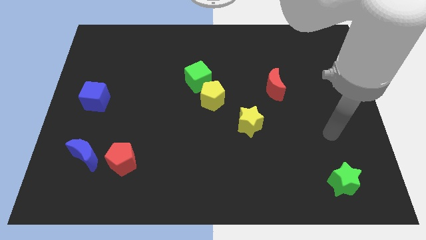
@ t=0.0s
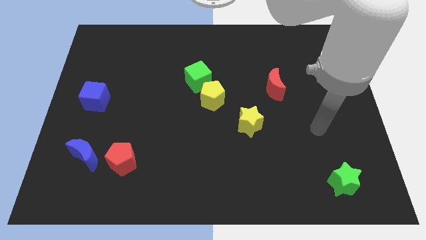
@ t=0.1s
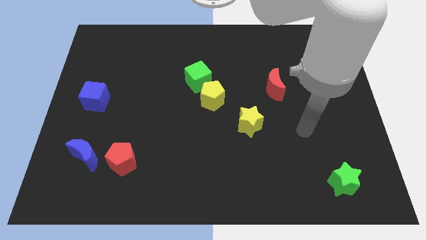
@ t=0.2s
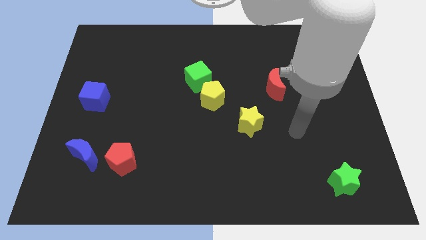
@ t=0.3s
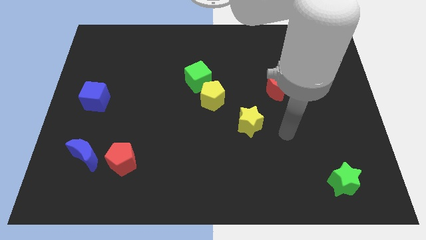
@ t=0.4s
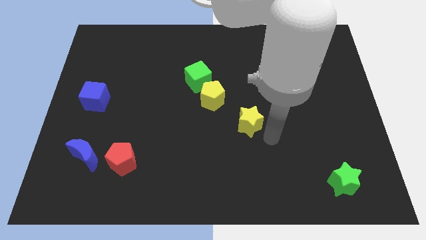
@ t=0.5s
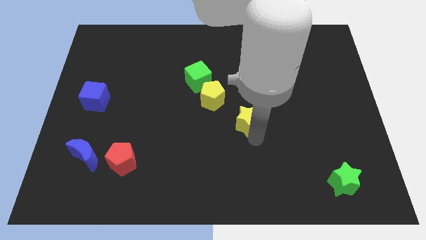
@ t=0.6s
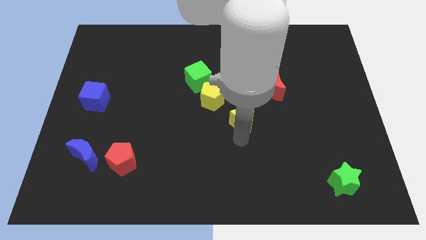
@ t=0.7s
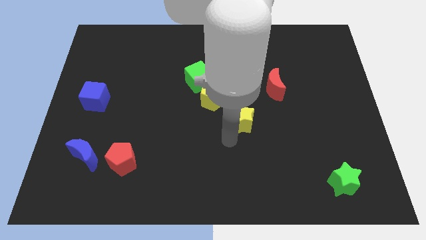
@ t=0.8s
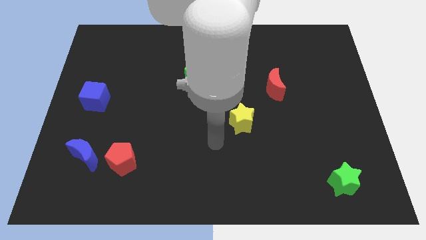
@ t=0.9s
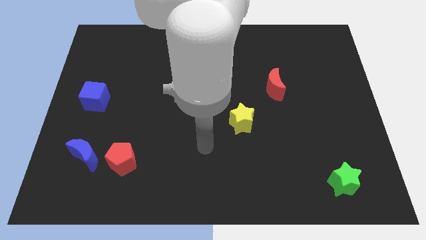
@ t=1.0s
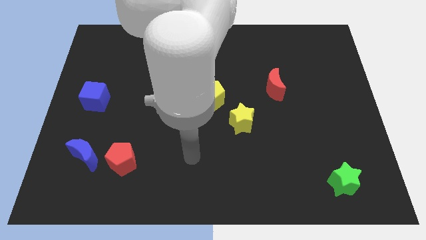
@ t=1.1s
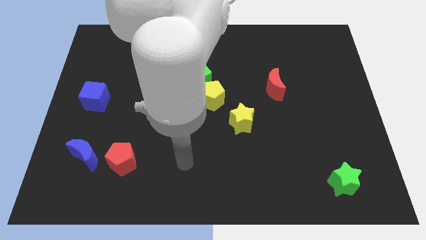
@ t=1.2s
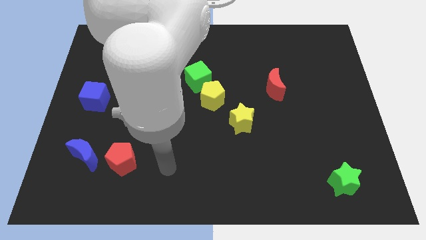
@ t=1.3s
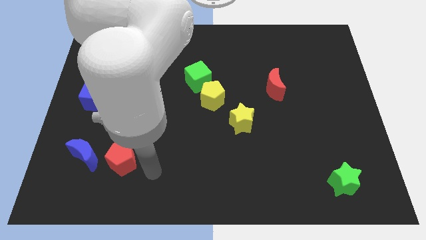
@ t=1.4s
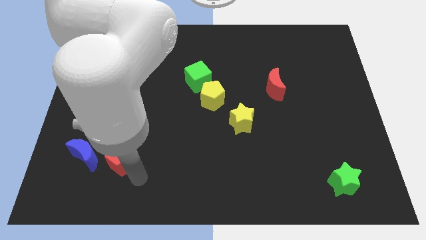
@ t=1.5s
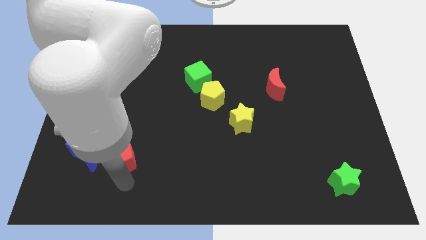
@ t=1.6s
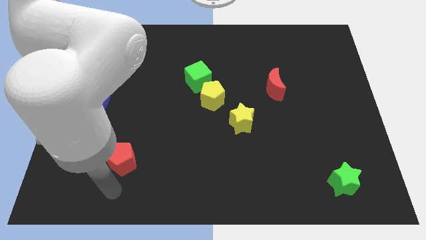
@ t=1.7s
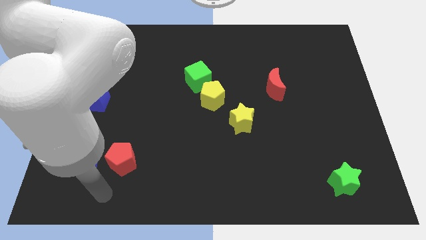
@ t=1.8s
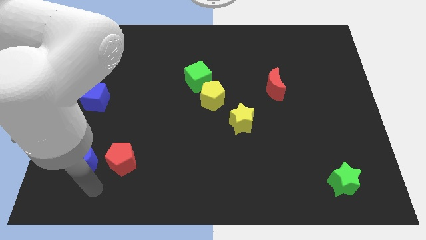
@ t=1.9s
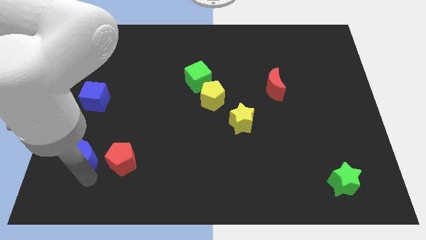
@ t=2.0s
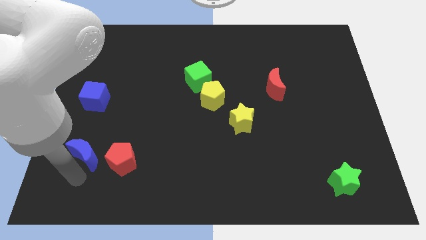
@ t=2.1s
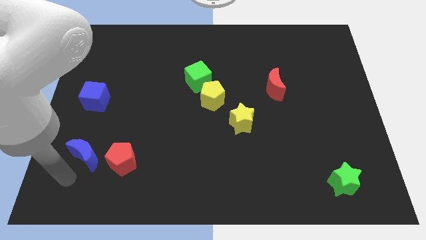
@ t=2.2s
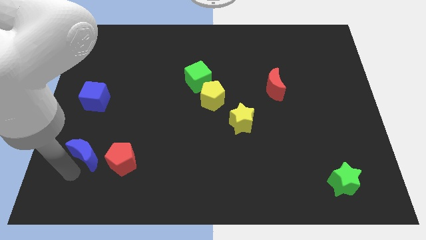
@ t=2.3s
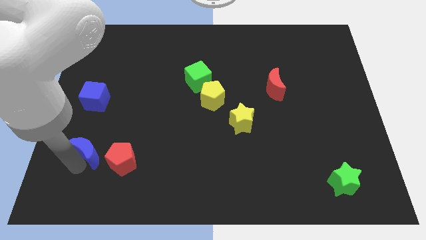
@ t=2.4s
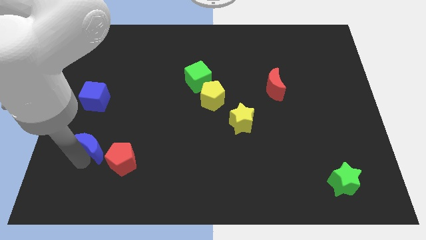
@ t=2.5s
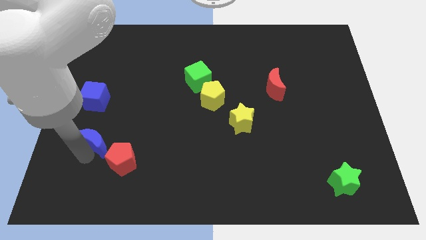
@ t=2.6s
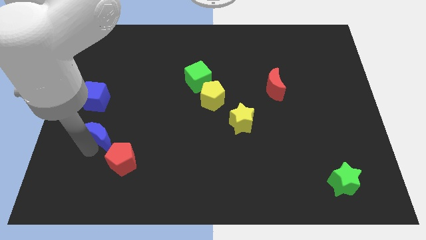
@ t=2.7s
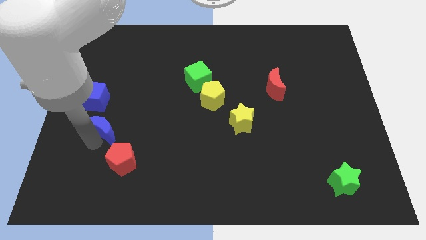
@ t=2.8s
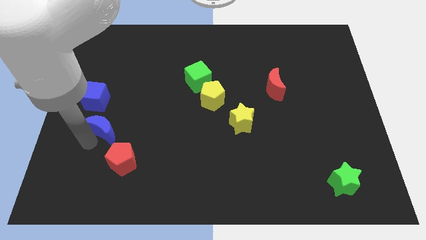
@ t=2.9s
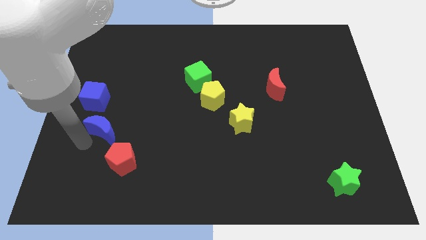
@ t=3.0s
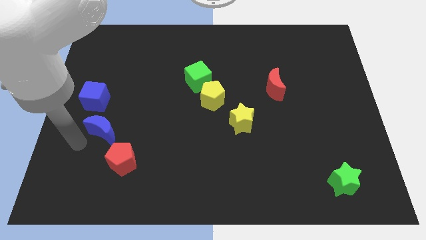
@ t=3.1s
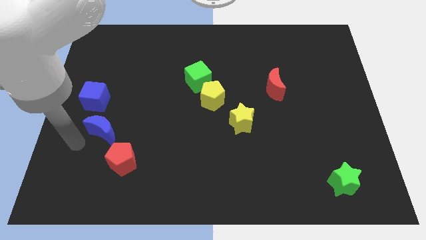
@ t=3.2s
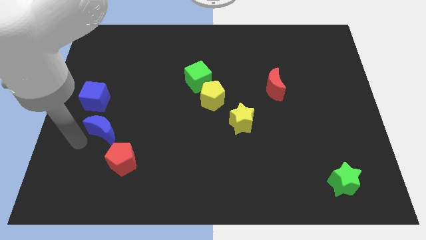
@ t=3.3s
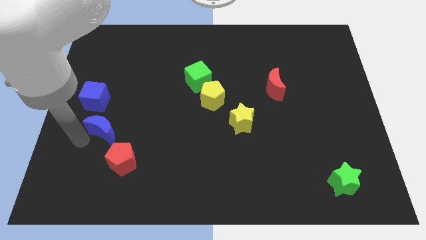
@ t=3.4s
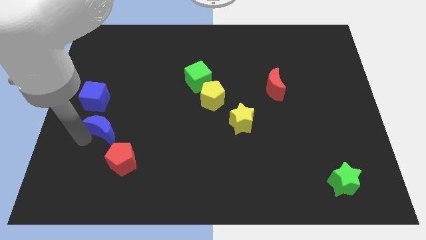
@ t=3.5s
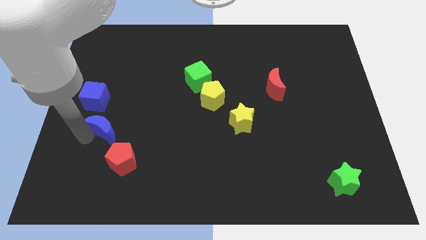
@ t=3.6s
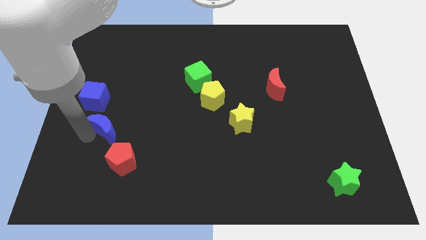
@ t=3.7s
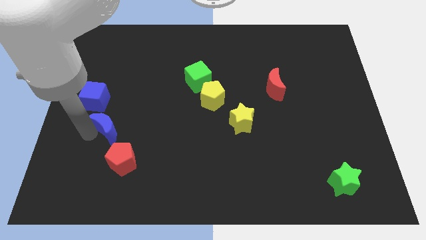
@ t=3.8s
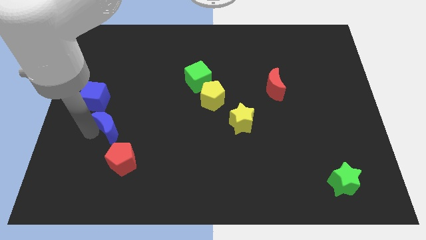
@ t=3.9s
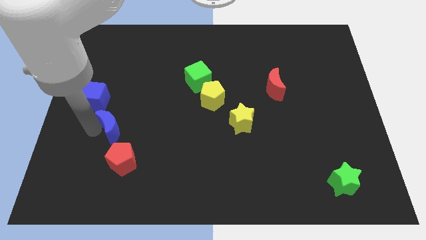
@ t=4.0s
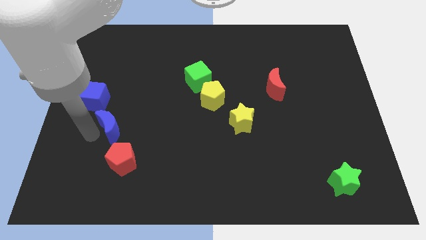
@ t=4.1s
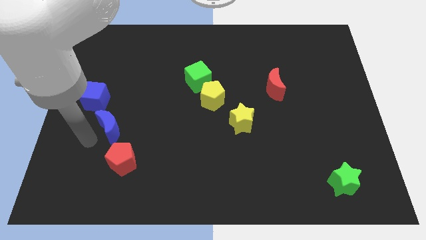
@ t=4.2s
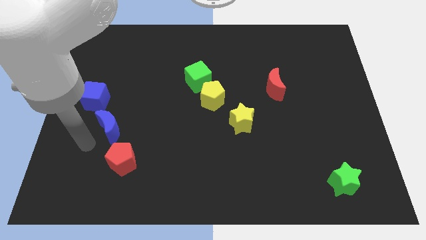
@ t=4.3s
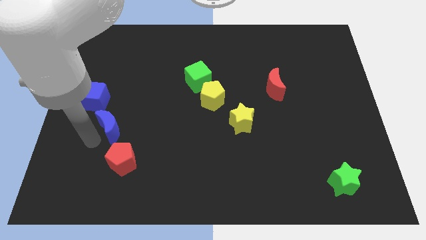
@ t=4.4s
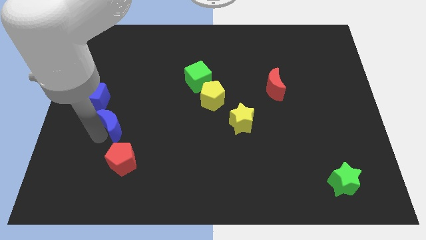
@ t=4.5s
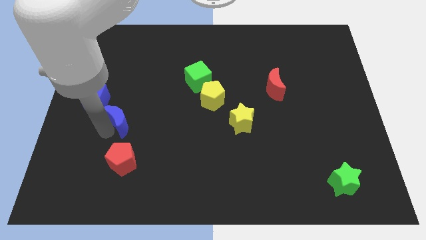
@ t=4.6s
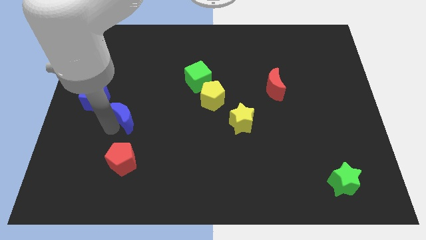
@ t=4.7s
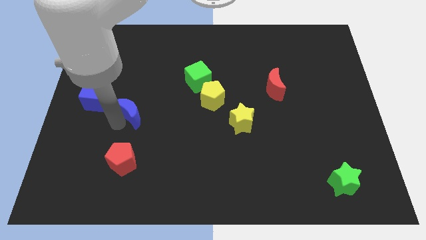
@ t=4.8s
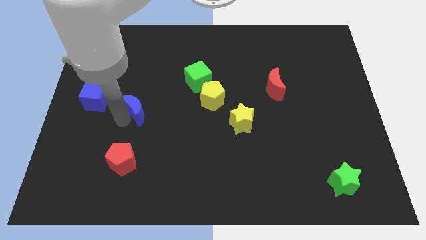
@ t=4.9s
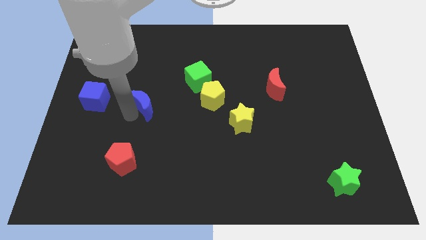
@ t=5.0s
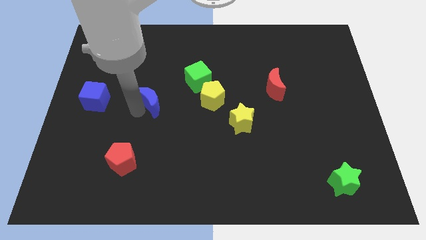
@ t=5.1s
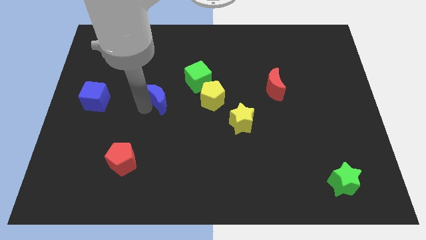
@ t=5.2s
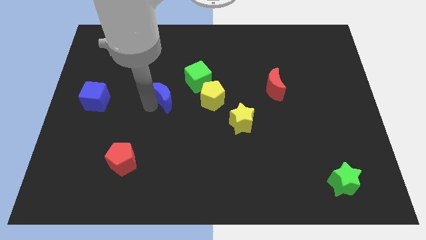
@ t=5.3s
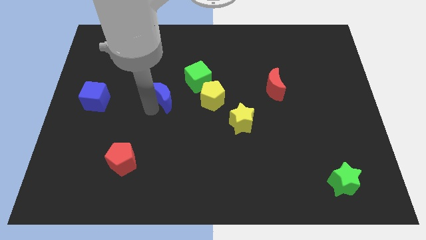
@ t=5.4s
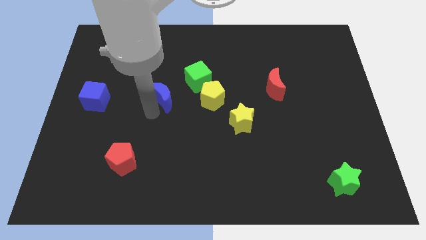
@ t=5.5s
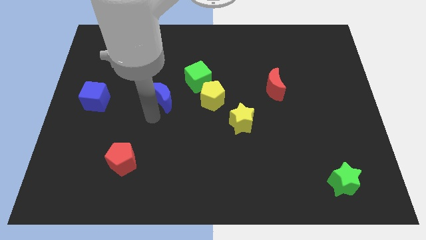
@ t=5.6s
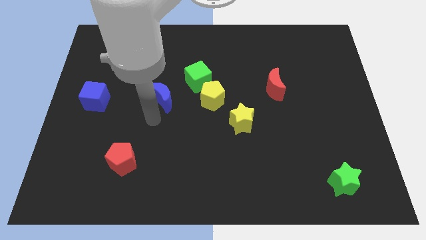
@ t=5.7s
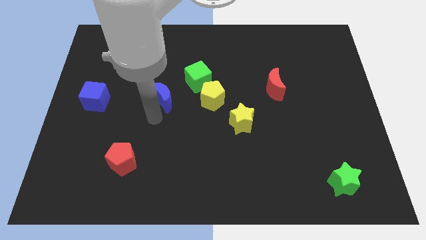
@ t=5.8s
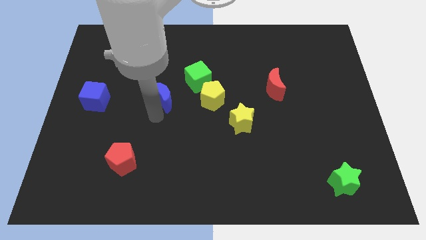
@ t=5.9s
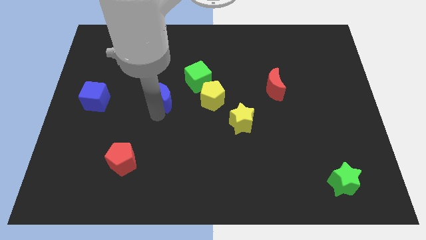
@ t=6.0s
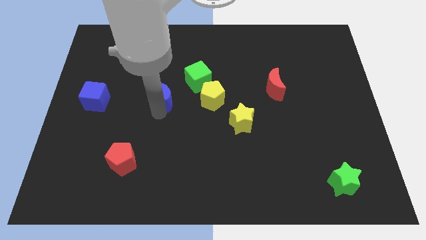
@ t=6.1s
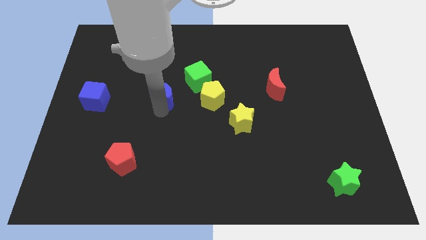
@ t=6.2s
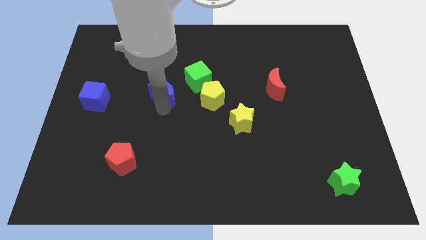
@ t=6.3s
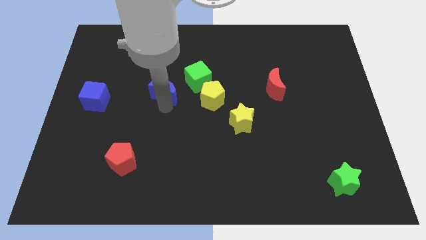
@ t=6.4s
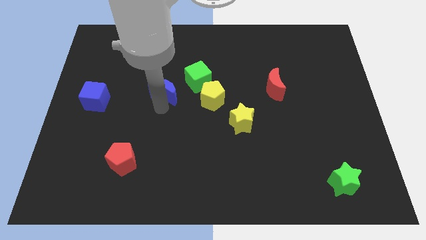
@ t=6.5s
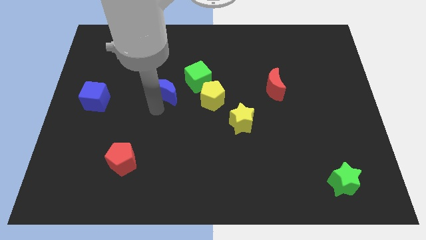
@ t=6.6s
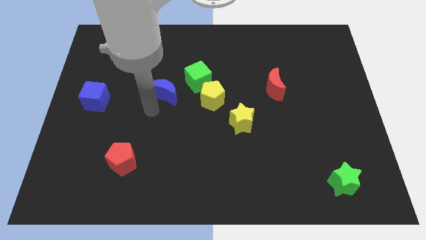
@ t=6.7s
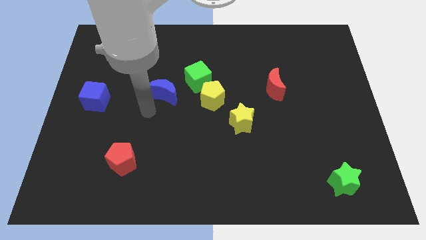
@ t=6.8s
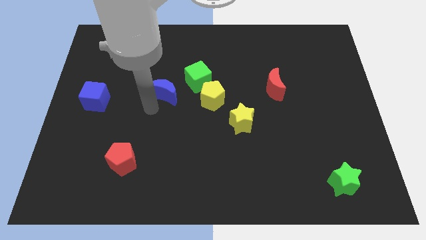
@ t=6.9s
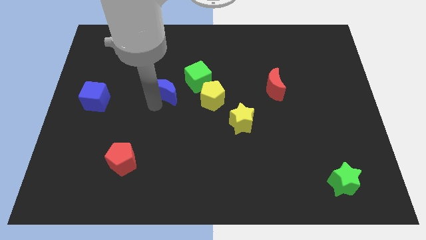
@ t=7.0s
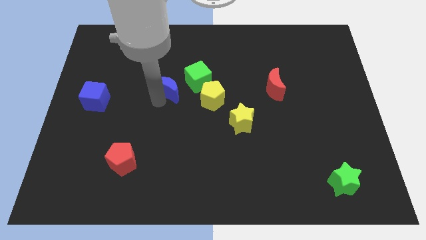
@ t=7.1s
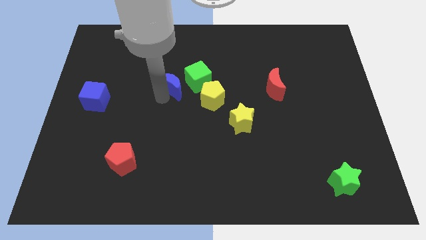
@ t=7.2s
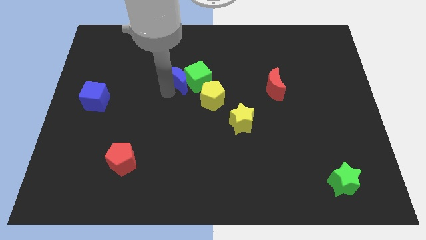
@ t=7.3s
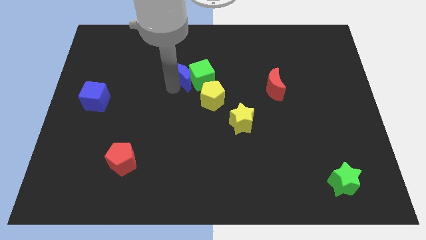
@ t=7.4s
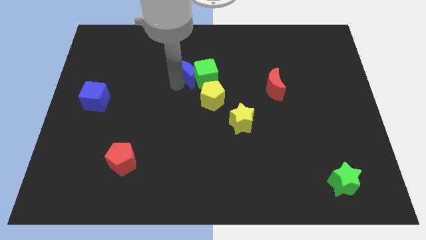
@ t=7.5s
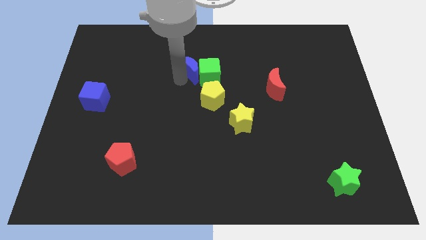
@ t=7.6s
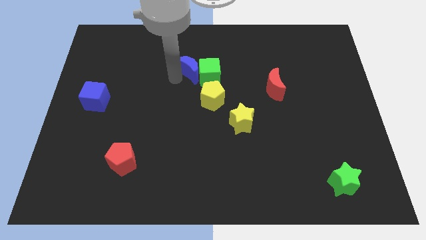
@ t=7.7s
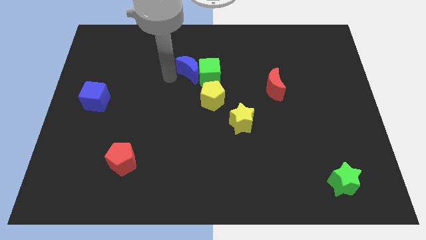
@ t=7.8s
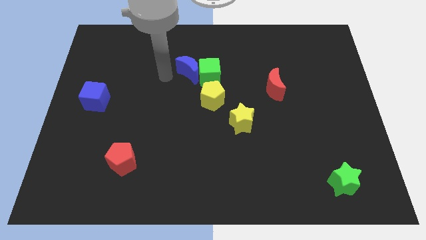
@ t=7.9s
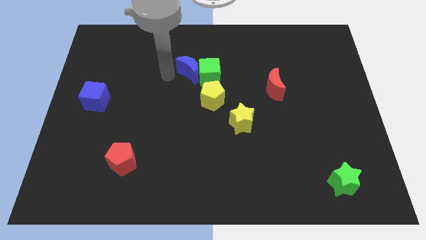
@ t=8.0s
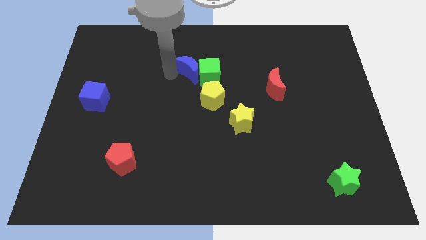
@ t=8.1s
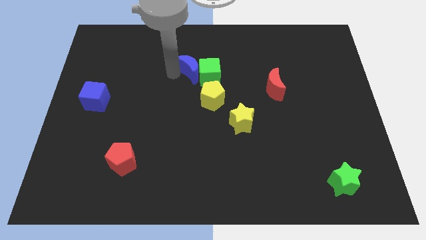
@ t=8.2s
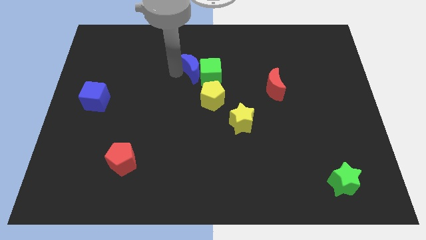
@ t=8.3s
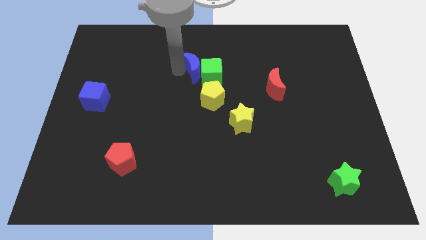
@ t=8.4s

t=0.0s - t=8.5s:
move the blue moon to the top side of the yellow pentagon
